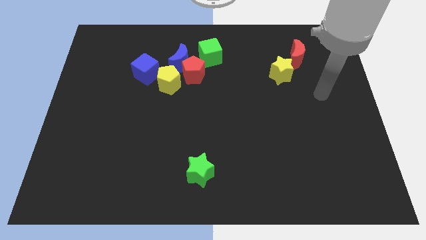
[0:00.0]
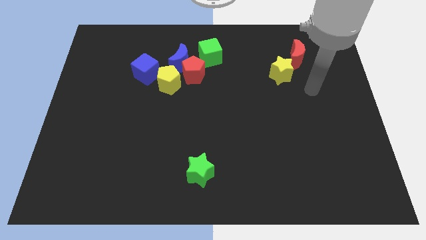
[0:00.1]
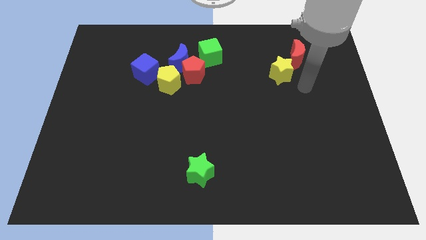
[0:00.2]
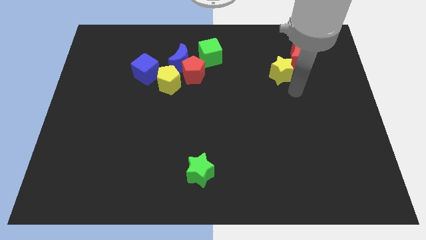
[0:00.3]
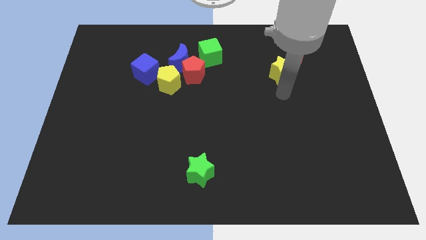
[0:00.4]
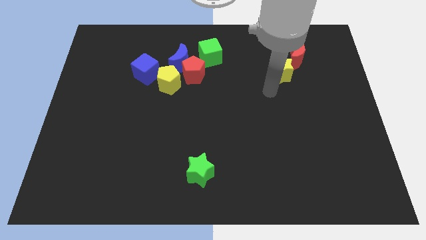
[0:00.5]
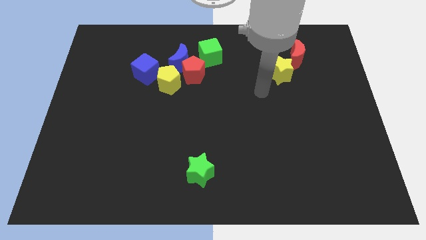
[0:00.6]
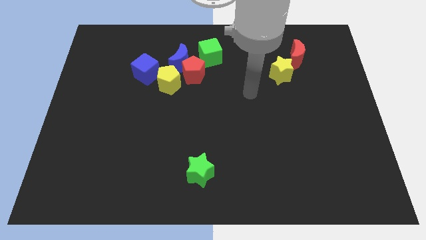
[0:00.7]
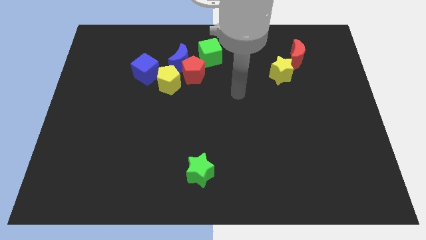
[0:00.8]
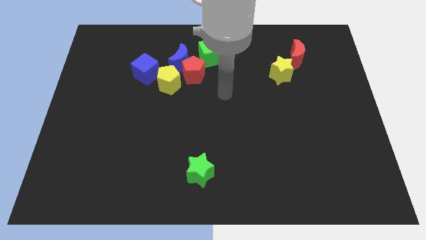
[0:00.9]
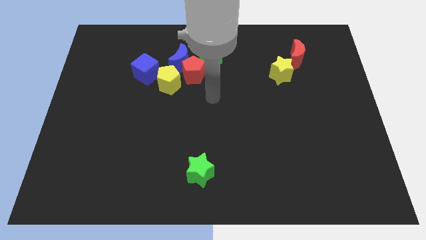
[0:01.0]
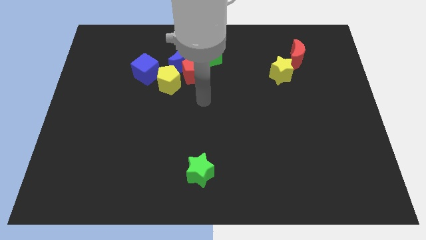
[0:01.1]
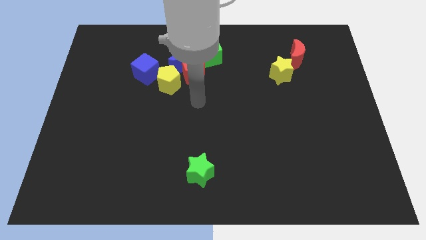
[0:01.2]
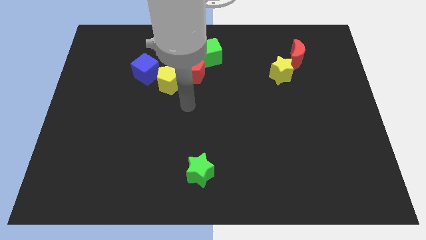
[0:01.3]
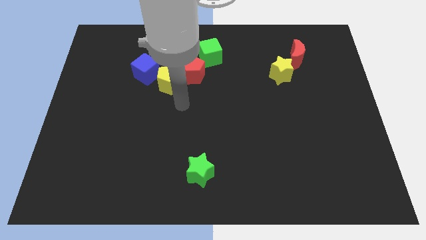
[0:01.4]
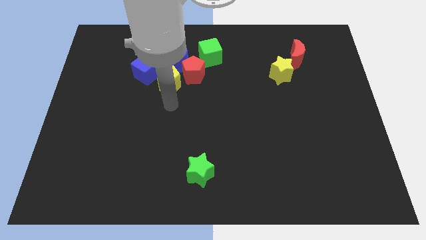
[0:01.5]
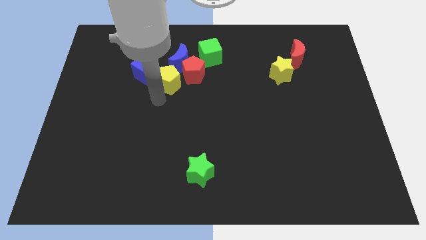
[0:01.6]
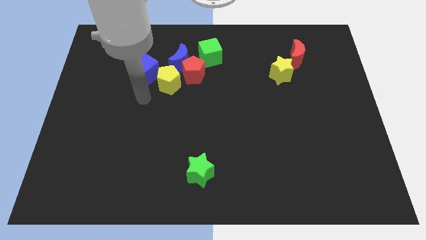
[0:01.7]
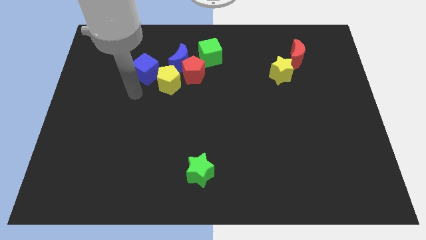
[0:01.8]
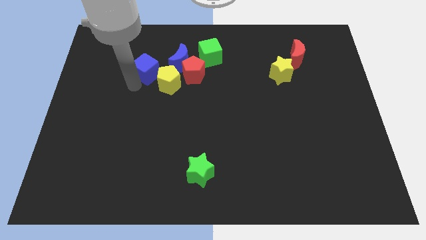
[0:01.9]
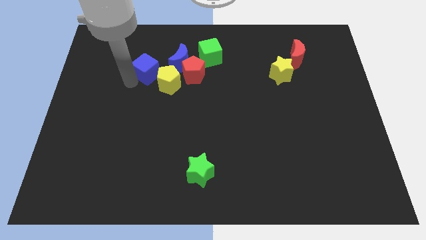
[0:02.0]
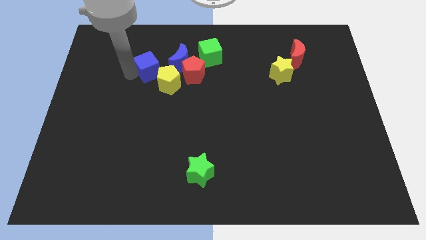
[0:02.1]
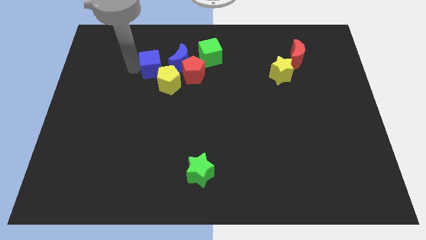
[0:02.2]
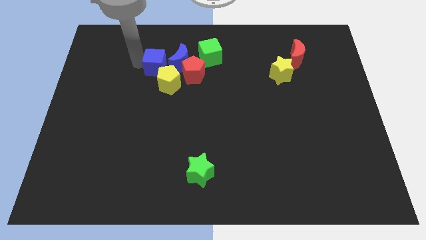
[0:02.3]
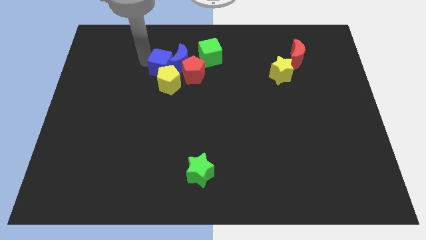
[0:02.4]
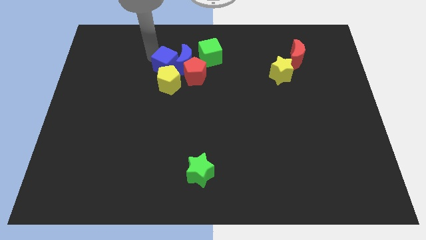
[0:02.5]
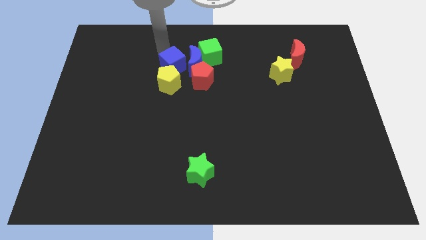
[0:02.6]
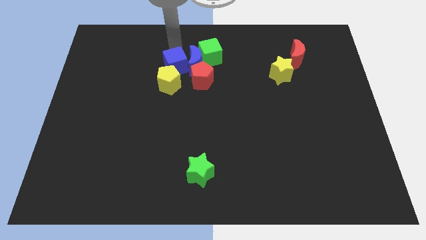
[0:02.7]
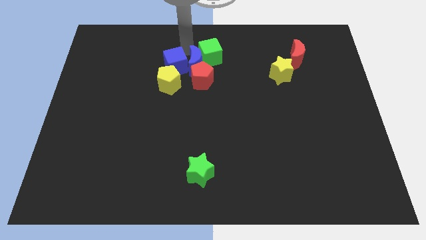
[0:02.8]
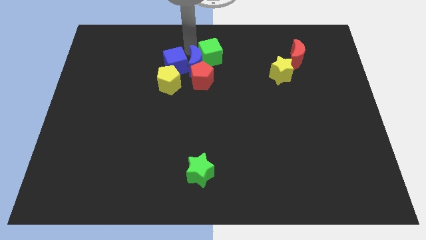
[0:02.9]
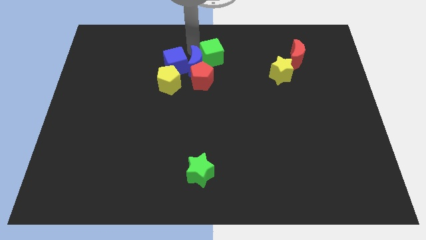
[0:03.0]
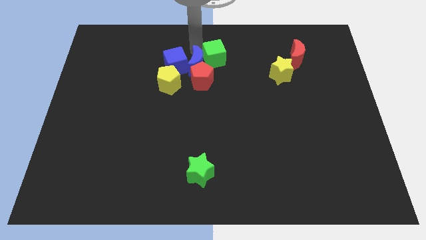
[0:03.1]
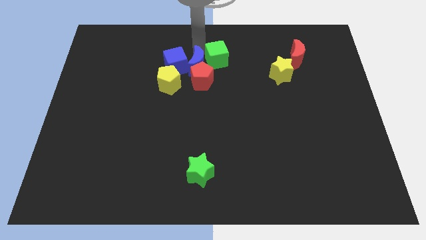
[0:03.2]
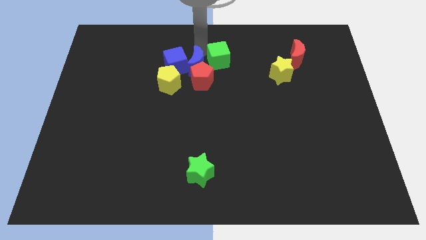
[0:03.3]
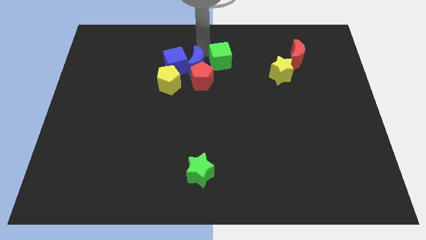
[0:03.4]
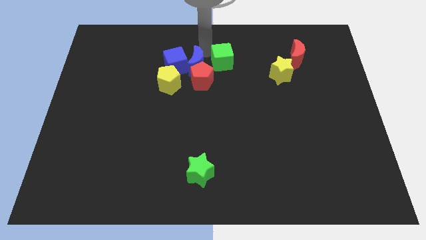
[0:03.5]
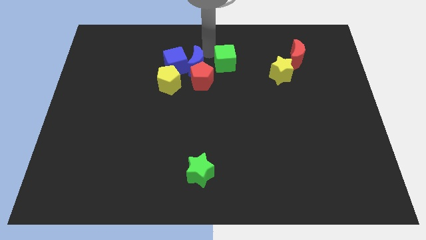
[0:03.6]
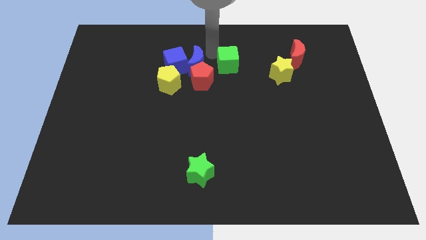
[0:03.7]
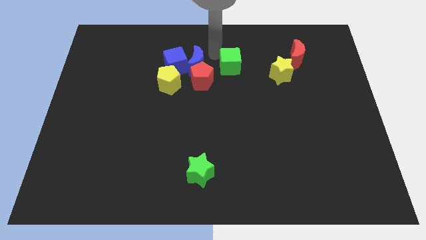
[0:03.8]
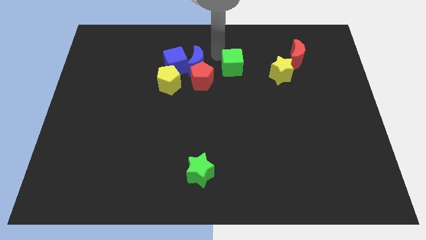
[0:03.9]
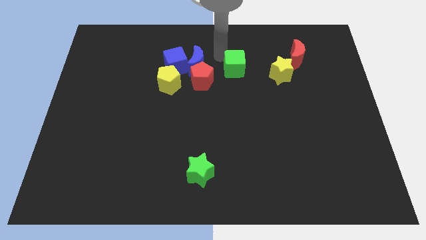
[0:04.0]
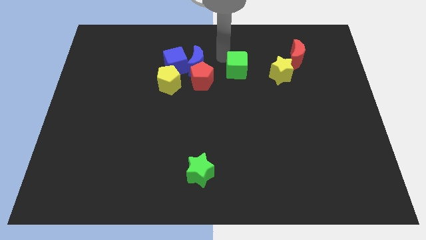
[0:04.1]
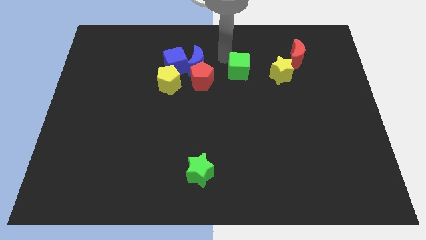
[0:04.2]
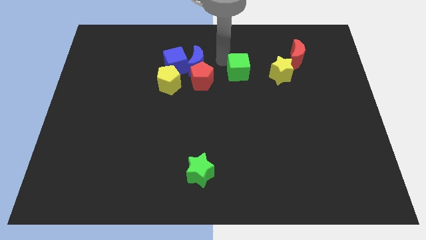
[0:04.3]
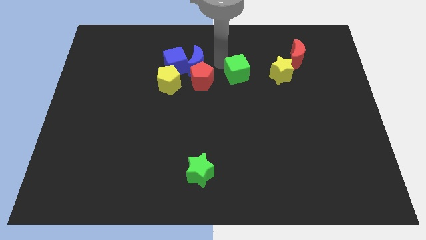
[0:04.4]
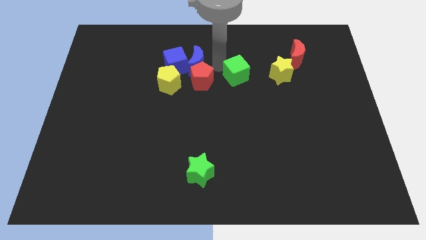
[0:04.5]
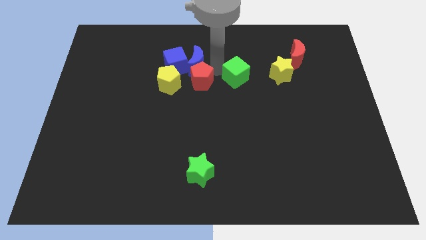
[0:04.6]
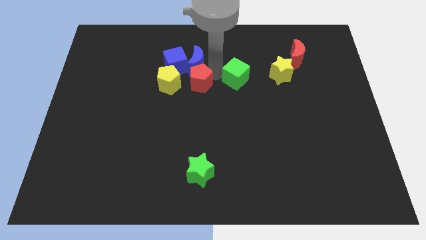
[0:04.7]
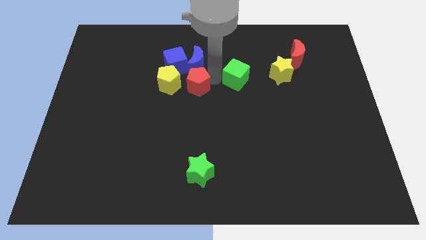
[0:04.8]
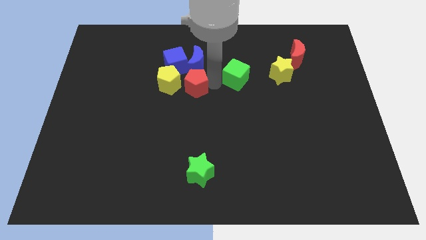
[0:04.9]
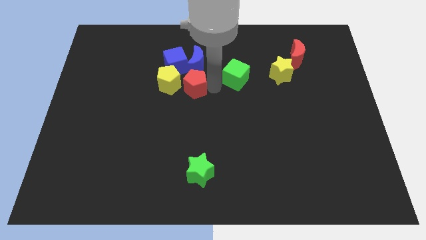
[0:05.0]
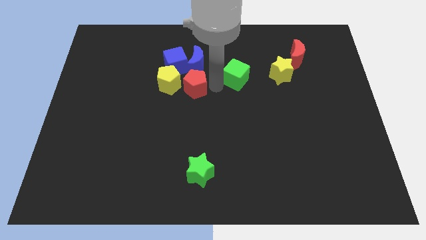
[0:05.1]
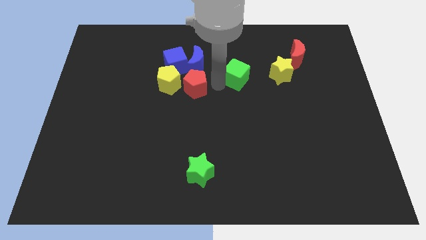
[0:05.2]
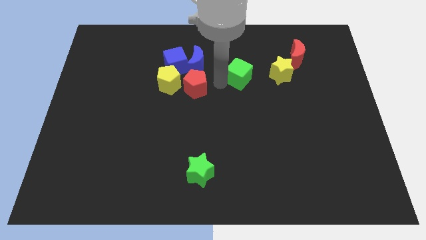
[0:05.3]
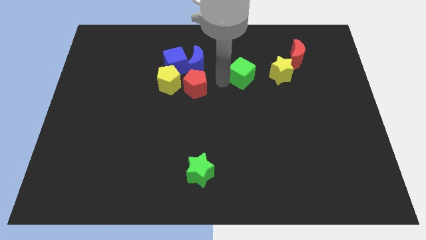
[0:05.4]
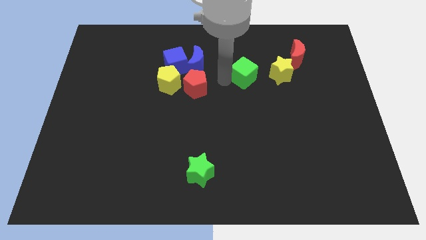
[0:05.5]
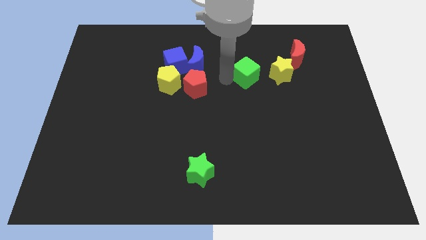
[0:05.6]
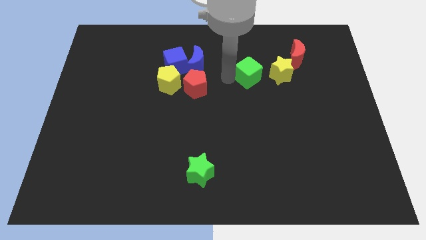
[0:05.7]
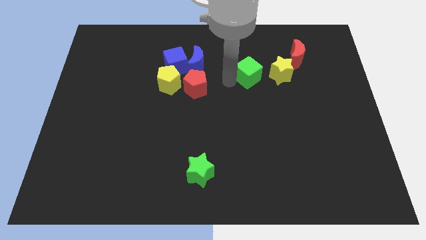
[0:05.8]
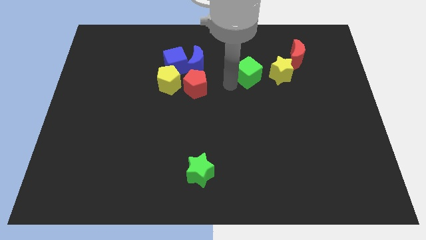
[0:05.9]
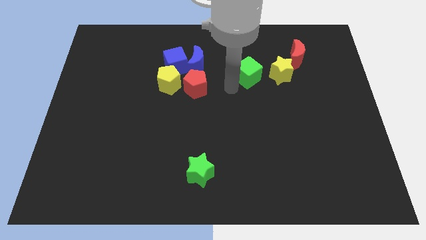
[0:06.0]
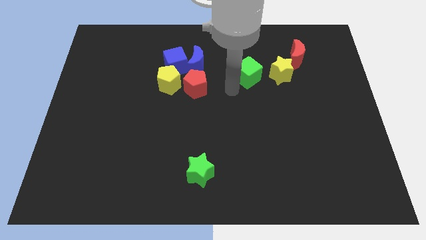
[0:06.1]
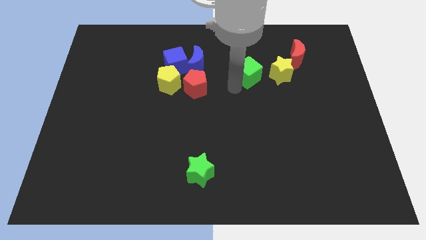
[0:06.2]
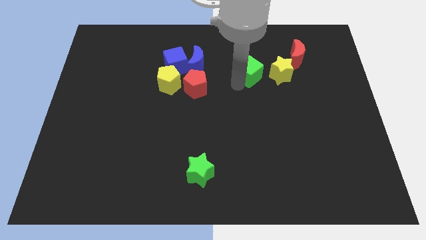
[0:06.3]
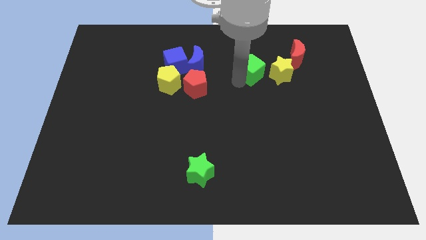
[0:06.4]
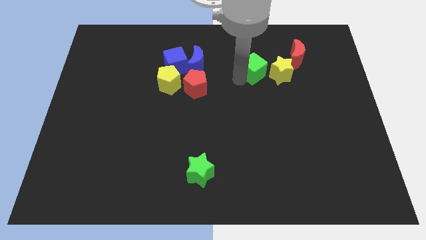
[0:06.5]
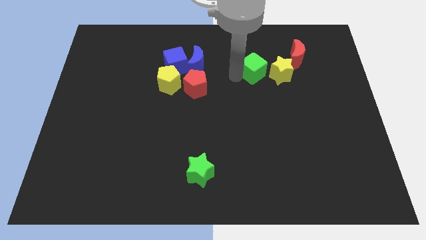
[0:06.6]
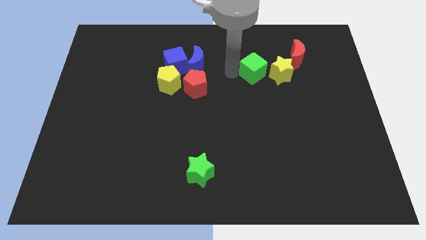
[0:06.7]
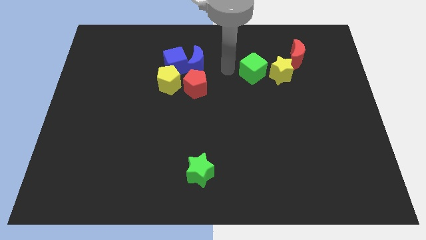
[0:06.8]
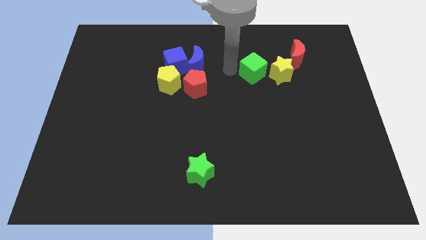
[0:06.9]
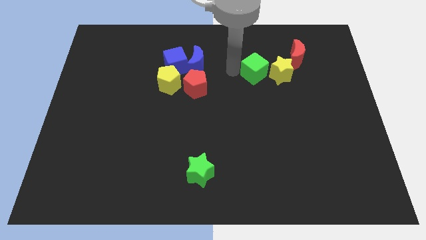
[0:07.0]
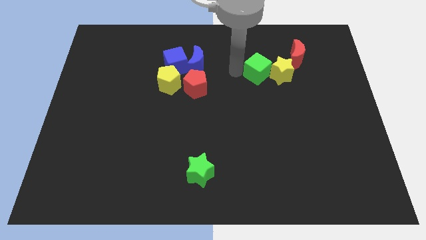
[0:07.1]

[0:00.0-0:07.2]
move the green cube towards the yellow star
